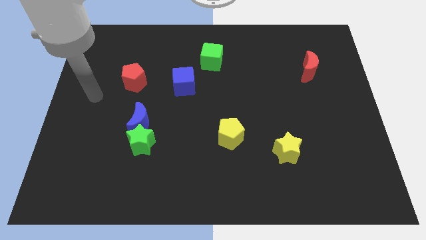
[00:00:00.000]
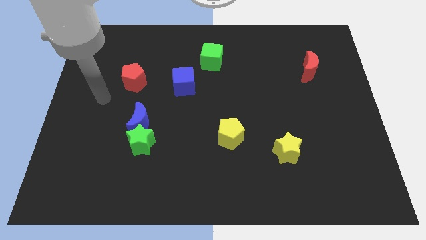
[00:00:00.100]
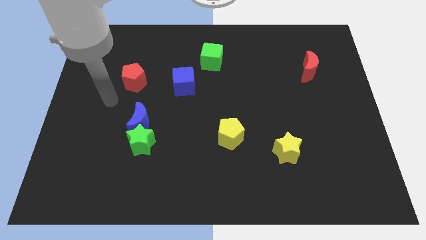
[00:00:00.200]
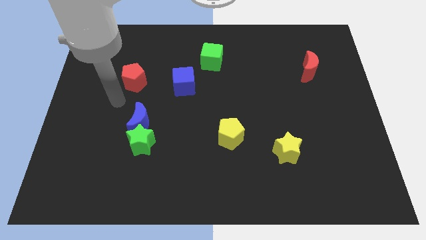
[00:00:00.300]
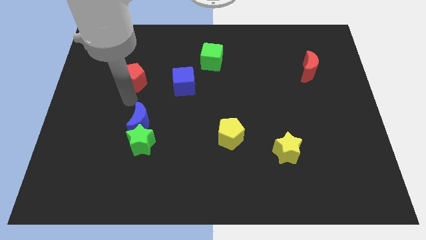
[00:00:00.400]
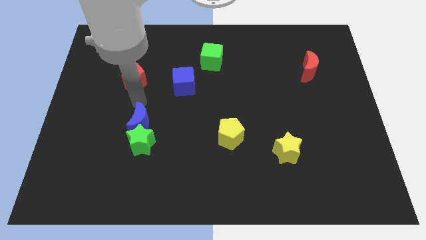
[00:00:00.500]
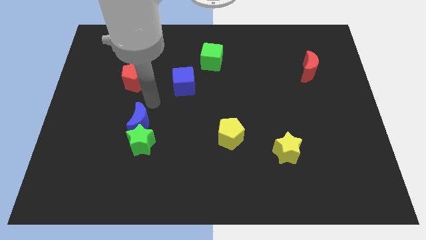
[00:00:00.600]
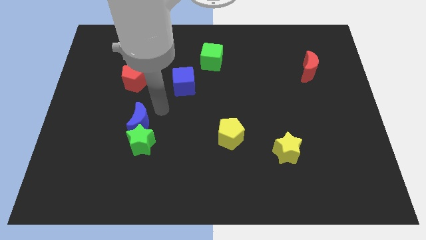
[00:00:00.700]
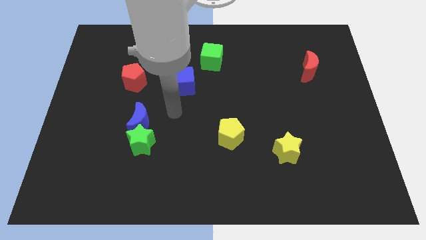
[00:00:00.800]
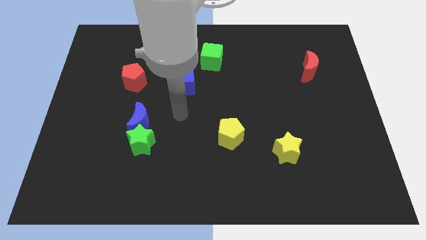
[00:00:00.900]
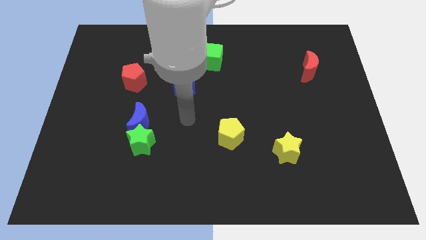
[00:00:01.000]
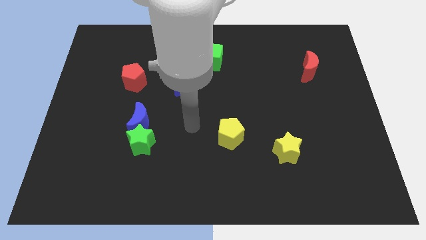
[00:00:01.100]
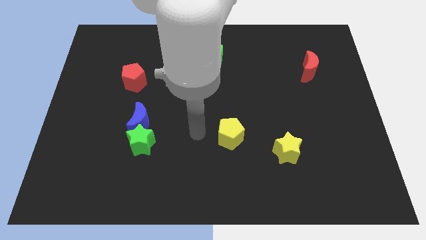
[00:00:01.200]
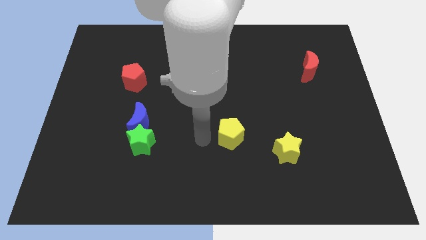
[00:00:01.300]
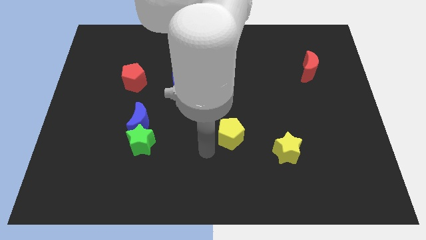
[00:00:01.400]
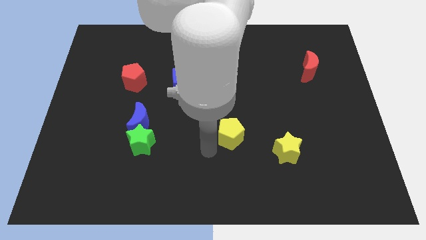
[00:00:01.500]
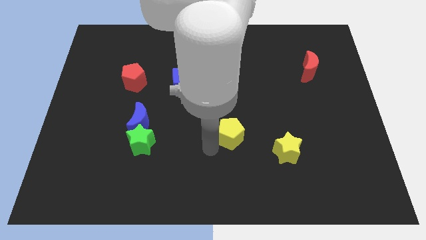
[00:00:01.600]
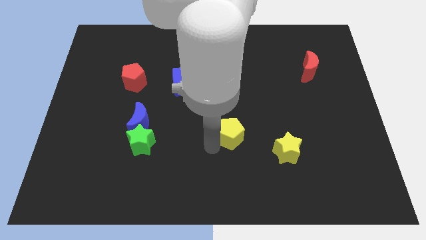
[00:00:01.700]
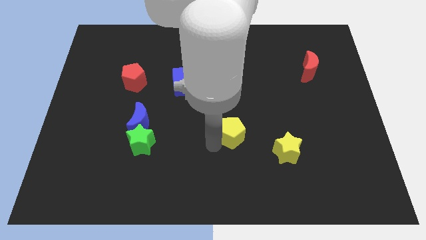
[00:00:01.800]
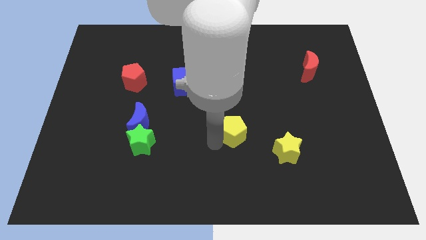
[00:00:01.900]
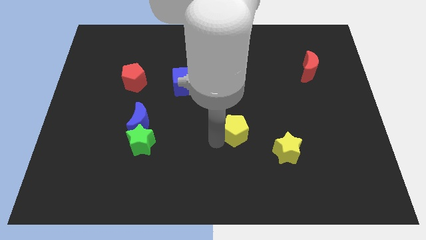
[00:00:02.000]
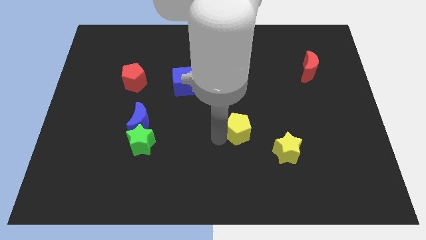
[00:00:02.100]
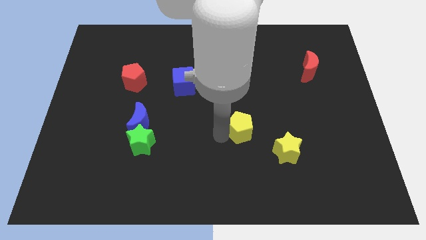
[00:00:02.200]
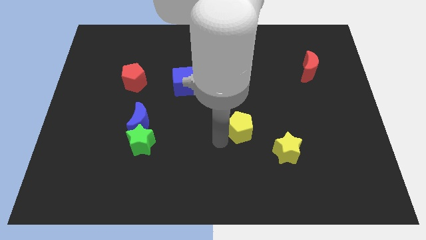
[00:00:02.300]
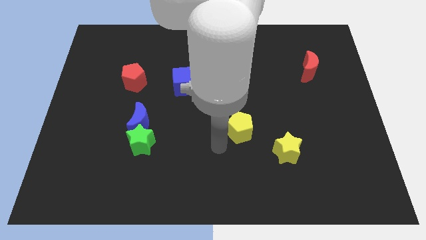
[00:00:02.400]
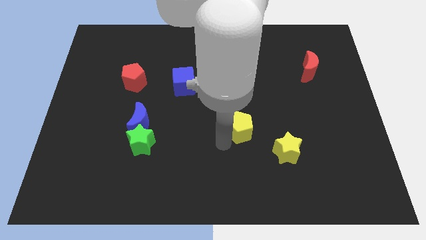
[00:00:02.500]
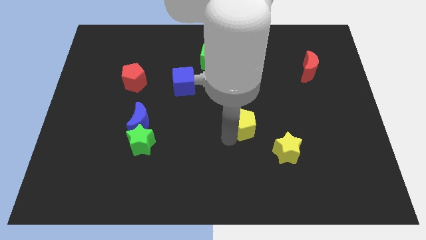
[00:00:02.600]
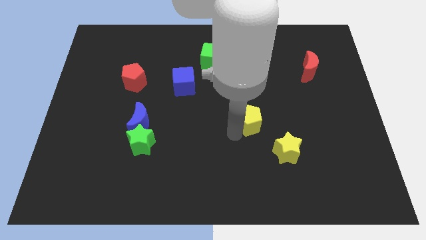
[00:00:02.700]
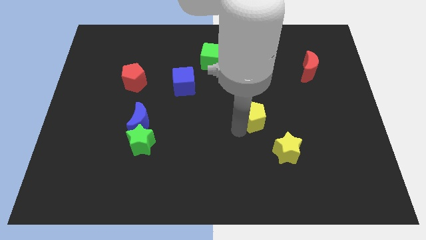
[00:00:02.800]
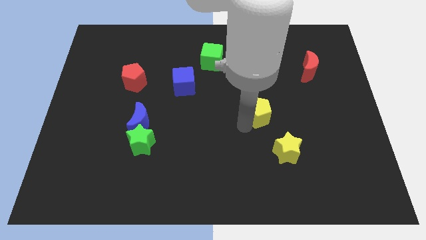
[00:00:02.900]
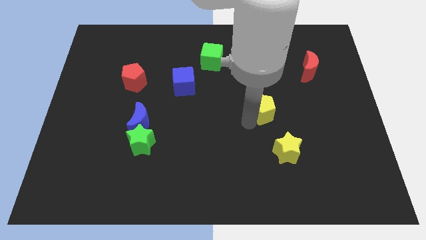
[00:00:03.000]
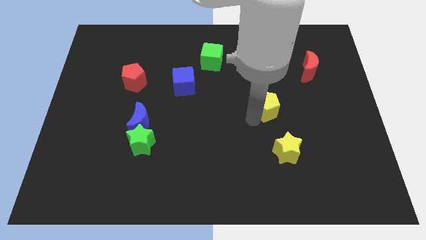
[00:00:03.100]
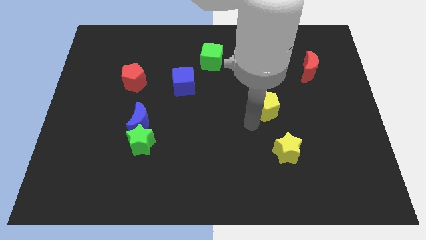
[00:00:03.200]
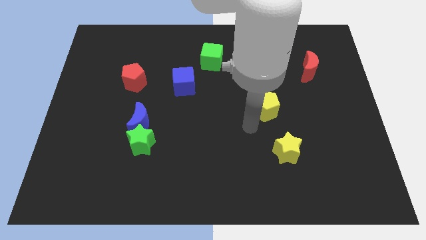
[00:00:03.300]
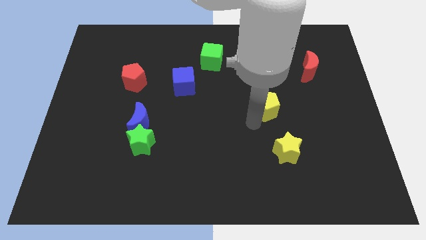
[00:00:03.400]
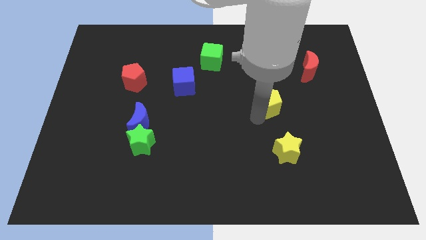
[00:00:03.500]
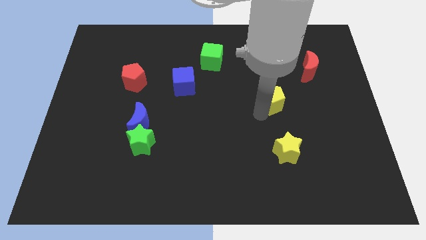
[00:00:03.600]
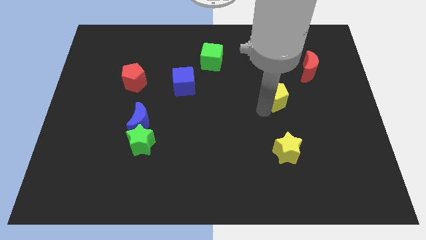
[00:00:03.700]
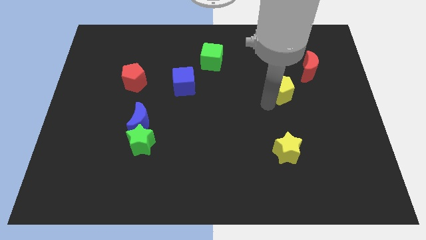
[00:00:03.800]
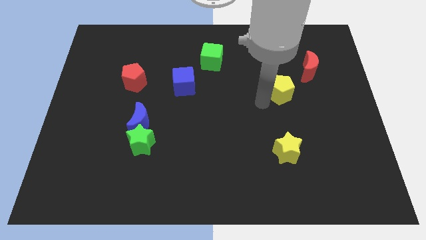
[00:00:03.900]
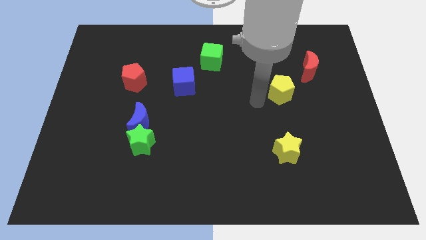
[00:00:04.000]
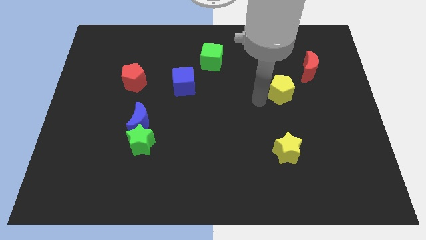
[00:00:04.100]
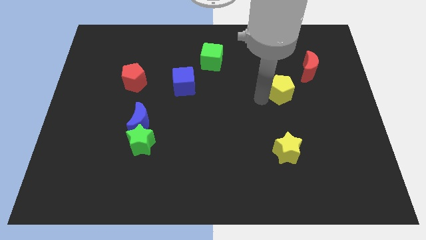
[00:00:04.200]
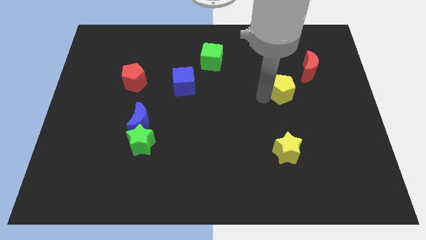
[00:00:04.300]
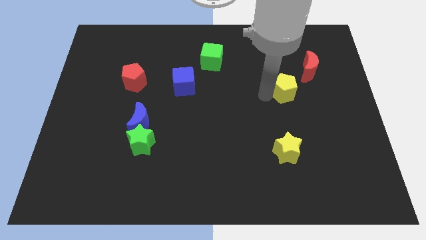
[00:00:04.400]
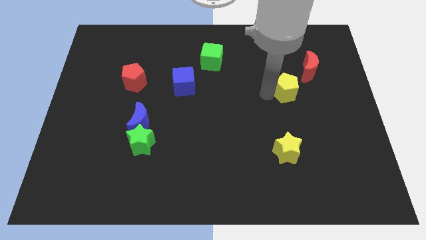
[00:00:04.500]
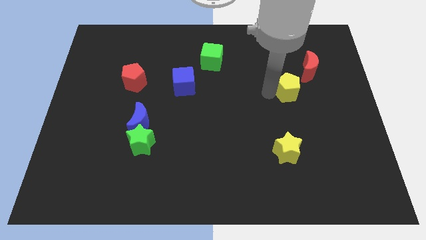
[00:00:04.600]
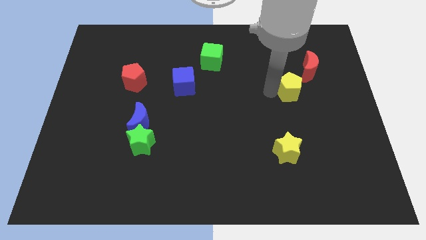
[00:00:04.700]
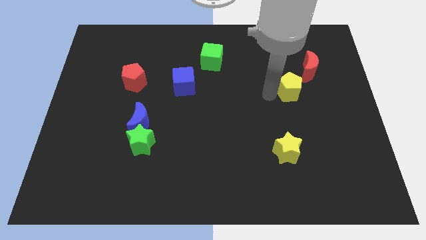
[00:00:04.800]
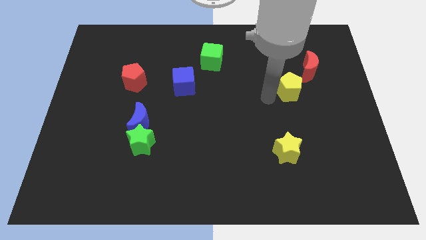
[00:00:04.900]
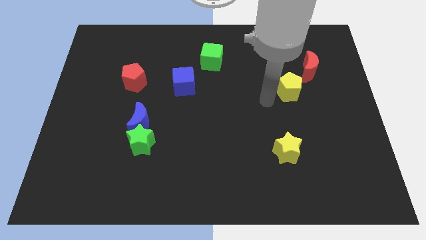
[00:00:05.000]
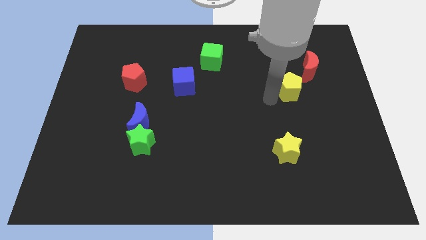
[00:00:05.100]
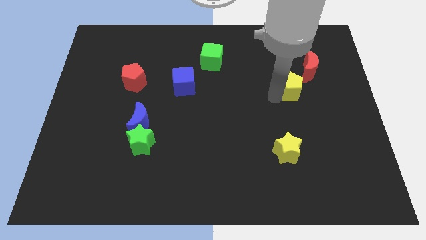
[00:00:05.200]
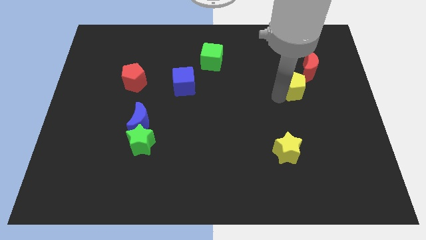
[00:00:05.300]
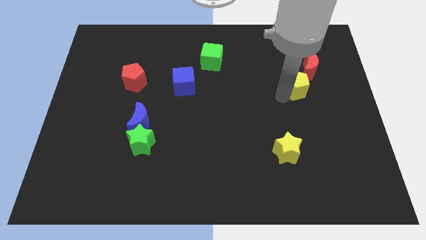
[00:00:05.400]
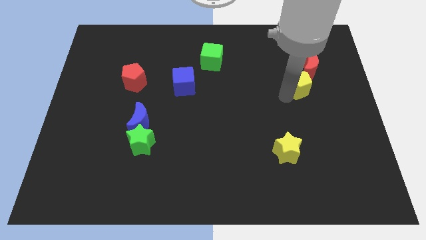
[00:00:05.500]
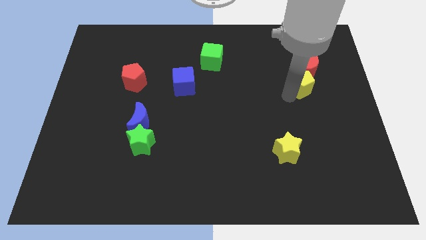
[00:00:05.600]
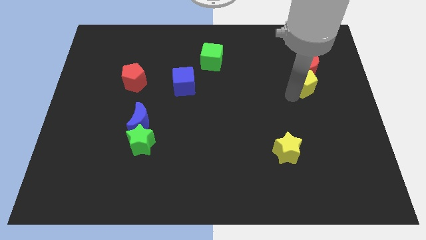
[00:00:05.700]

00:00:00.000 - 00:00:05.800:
slide the yellow pentagon towards the red moon

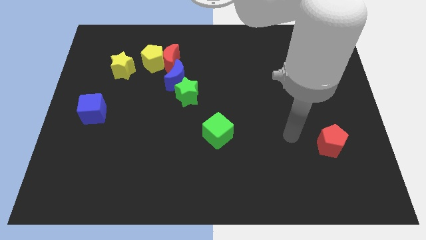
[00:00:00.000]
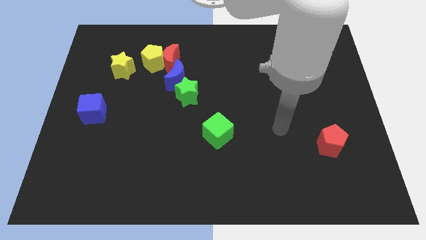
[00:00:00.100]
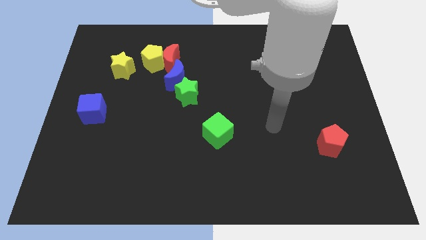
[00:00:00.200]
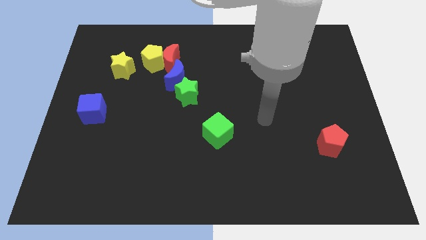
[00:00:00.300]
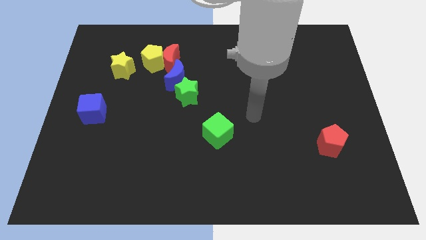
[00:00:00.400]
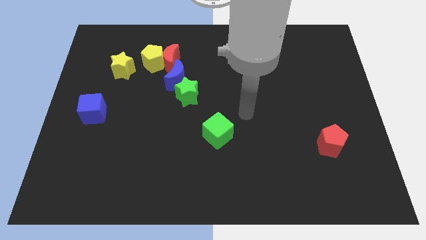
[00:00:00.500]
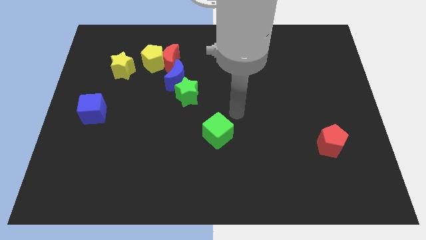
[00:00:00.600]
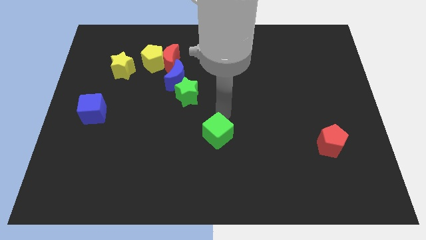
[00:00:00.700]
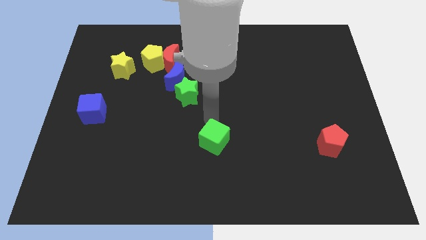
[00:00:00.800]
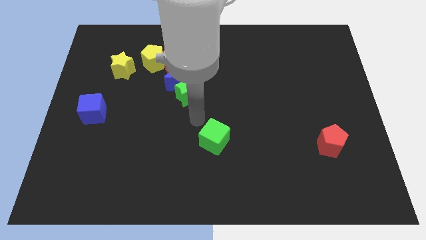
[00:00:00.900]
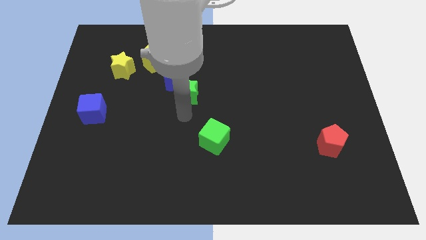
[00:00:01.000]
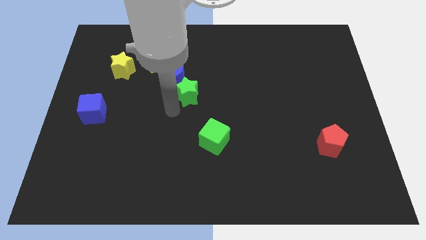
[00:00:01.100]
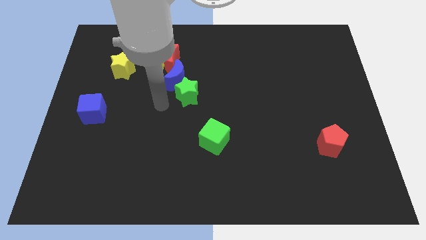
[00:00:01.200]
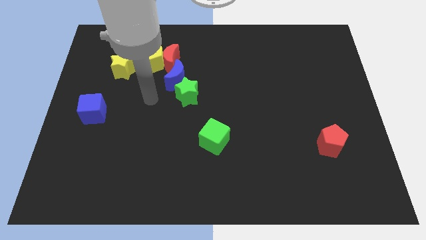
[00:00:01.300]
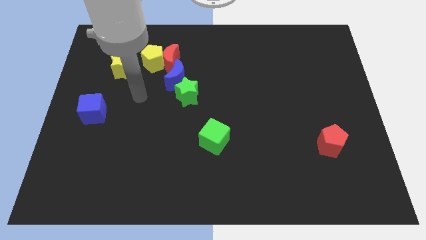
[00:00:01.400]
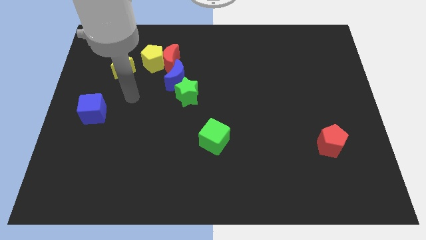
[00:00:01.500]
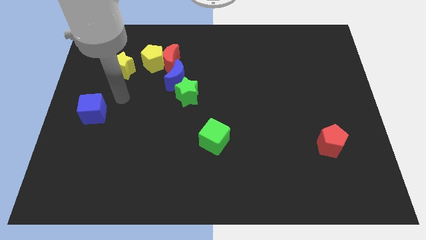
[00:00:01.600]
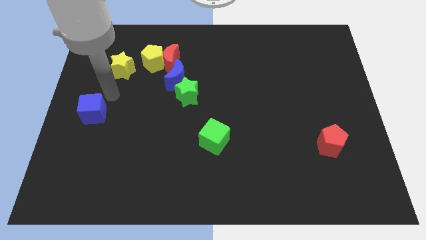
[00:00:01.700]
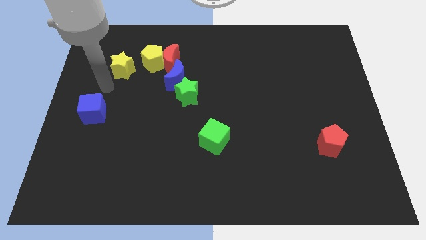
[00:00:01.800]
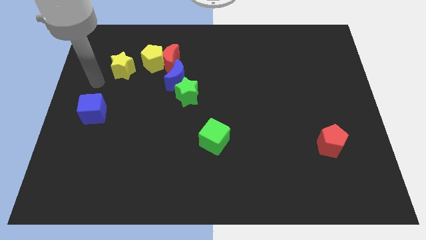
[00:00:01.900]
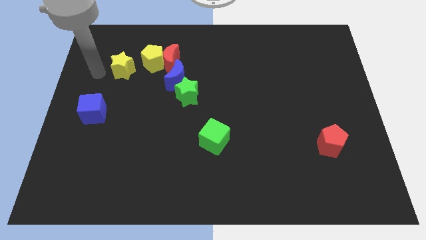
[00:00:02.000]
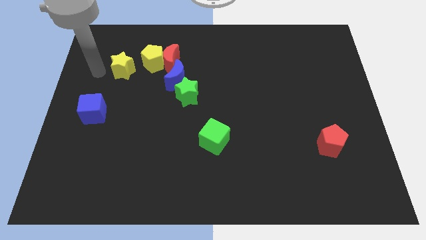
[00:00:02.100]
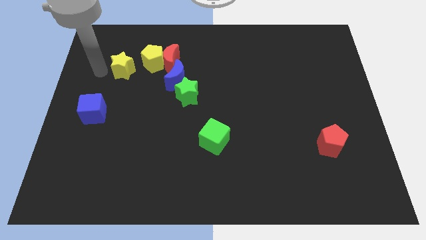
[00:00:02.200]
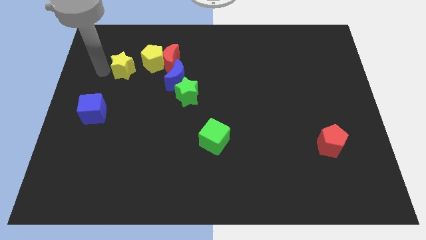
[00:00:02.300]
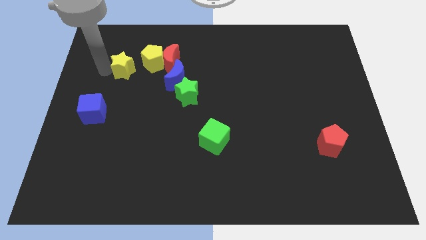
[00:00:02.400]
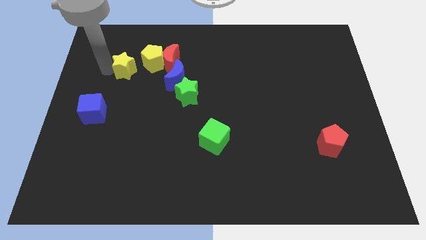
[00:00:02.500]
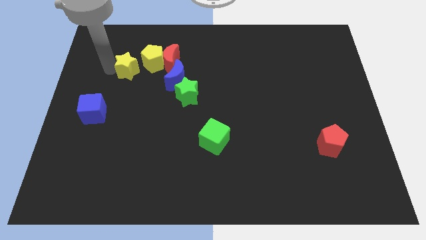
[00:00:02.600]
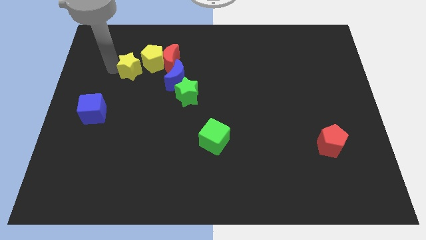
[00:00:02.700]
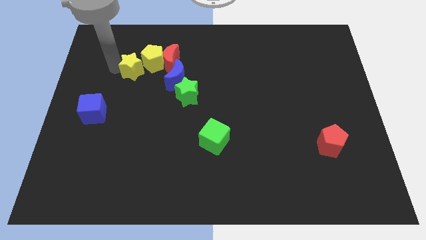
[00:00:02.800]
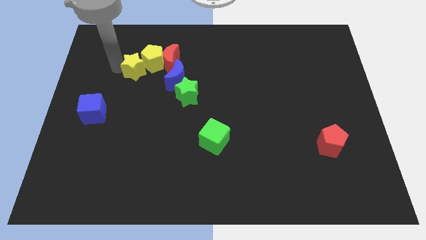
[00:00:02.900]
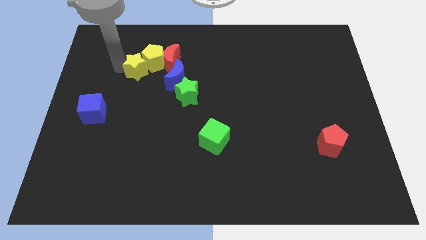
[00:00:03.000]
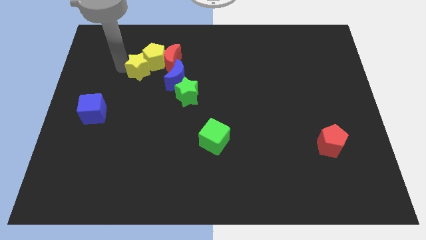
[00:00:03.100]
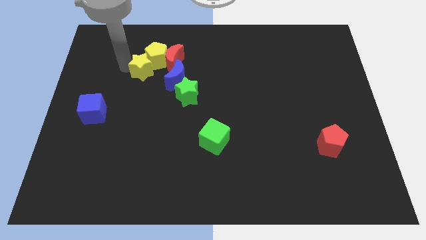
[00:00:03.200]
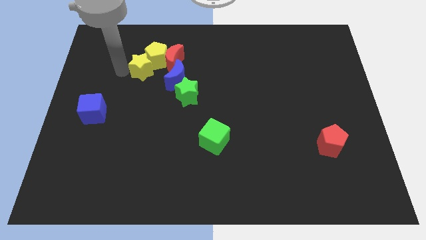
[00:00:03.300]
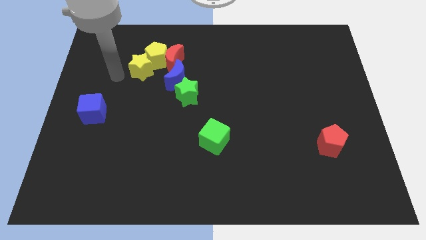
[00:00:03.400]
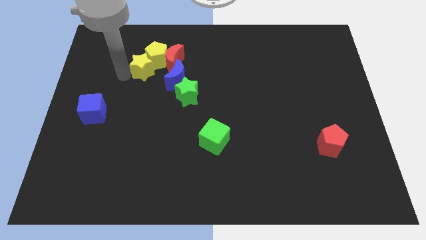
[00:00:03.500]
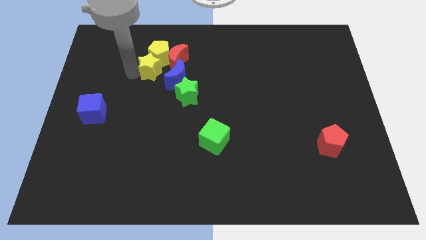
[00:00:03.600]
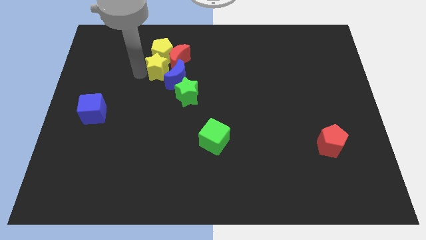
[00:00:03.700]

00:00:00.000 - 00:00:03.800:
slide the yellow star to the red moon
